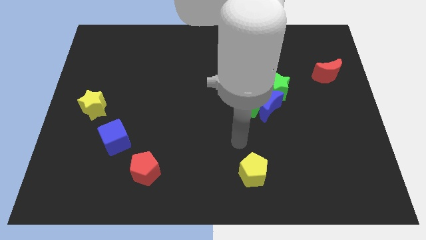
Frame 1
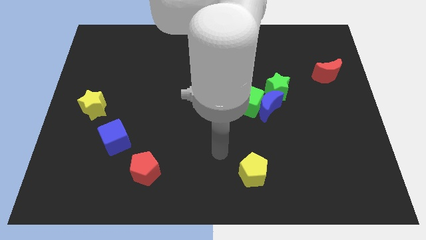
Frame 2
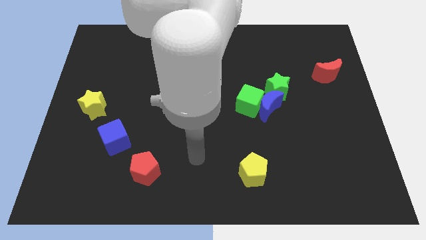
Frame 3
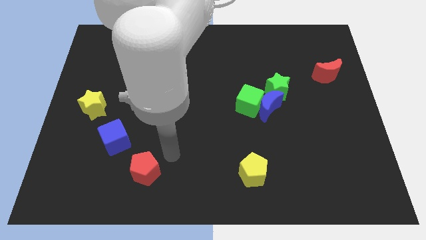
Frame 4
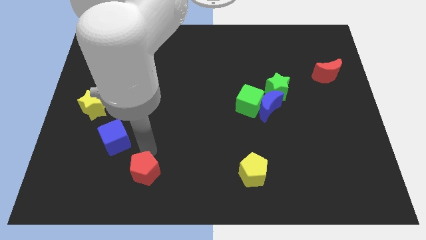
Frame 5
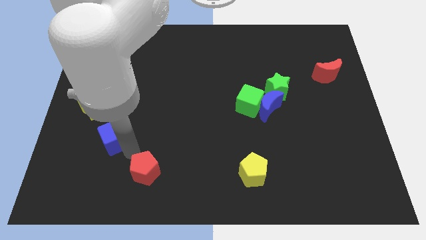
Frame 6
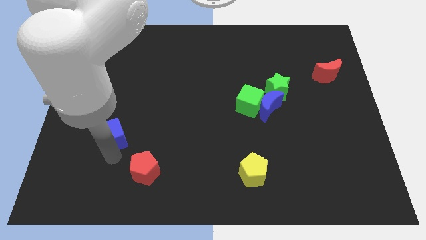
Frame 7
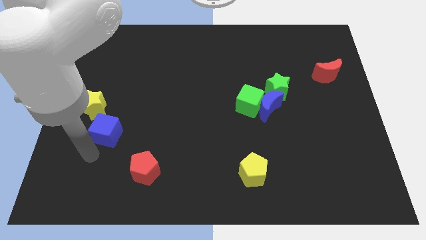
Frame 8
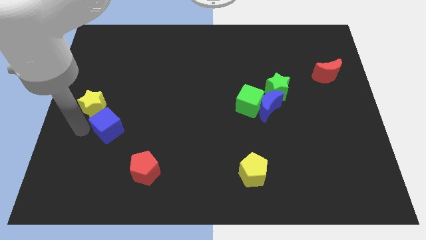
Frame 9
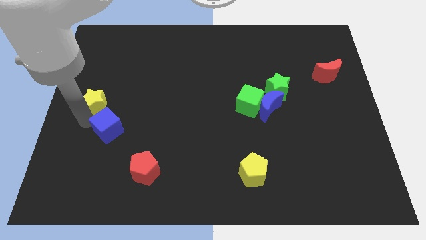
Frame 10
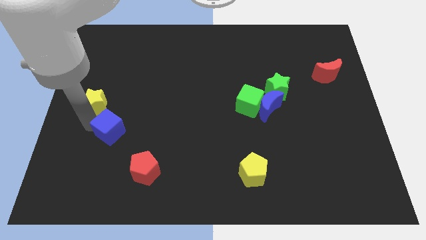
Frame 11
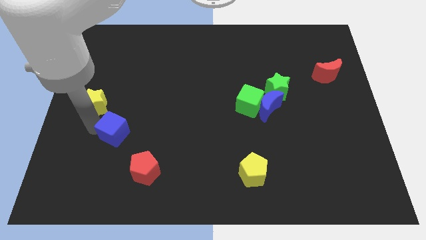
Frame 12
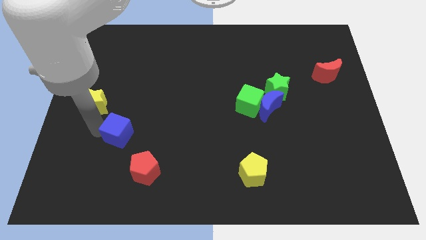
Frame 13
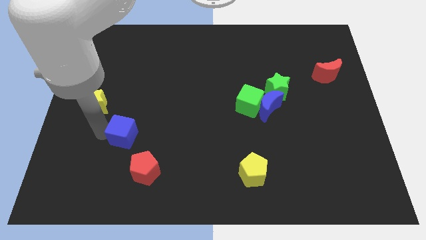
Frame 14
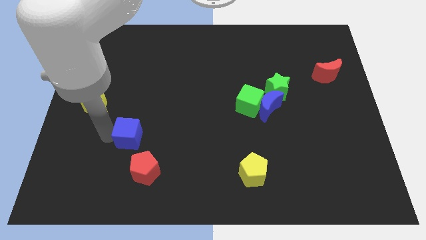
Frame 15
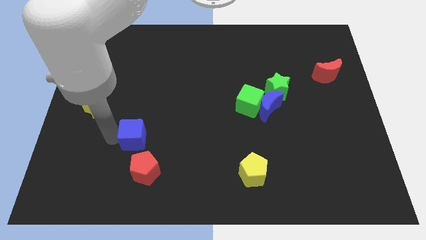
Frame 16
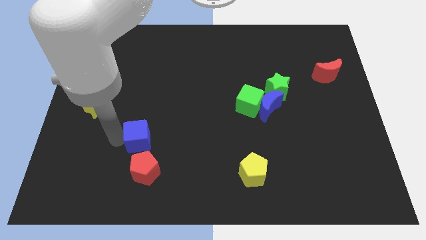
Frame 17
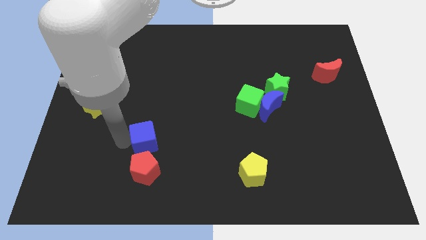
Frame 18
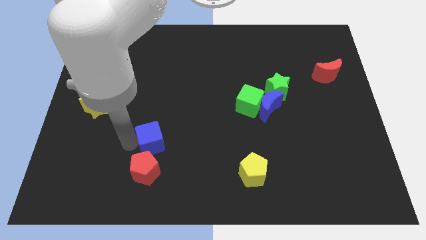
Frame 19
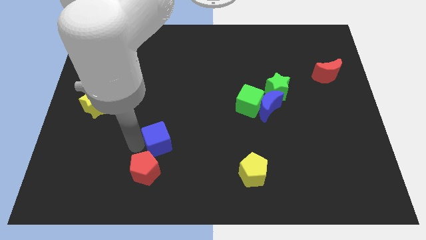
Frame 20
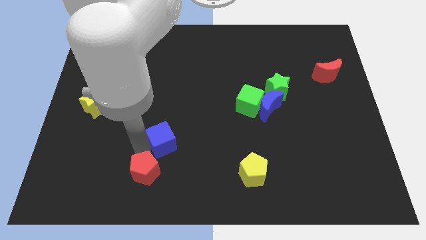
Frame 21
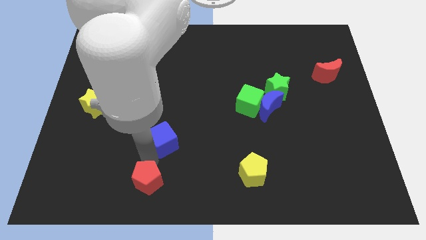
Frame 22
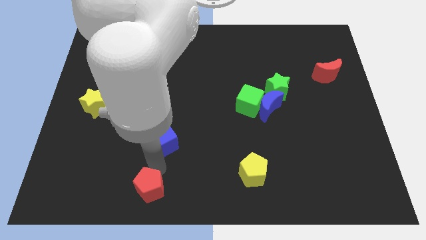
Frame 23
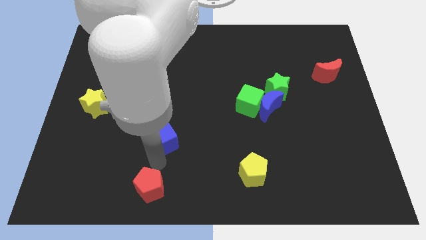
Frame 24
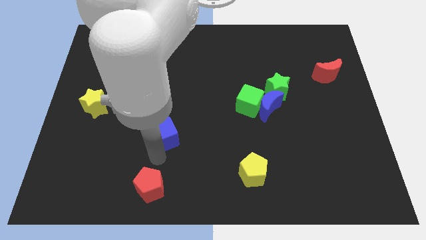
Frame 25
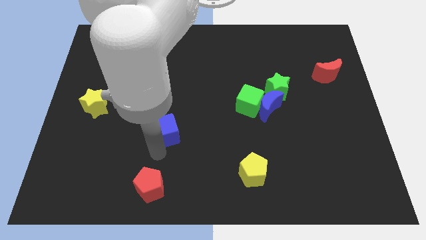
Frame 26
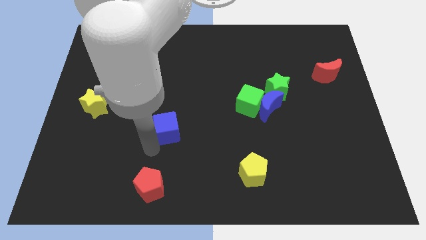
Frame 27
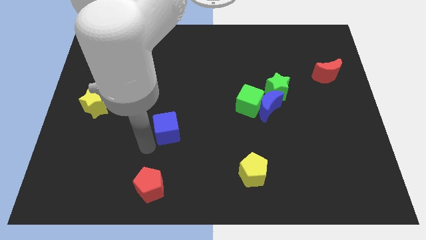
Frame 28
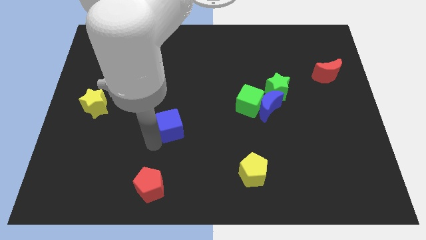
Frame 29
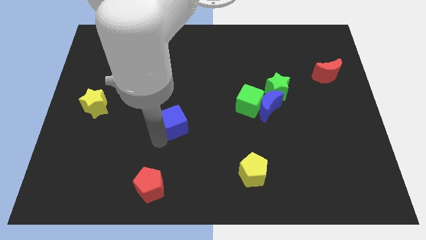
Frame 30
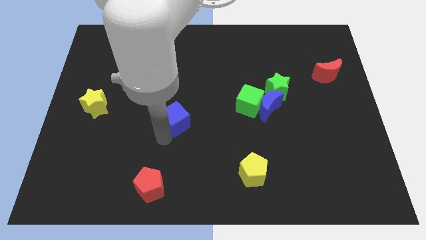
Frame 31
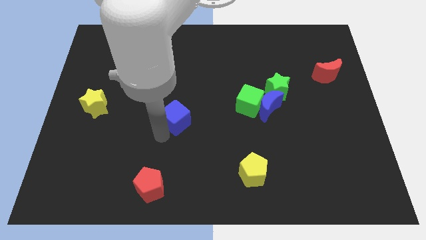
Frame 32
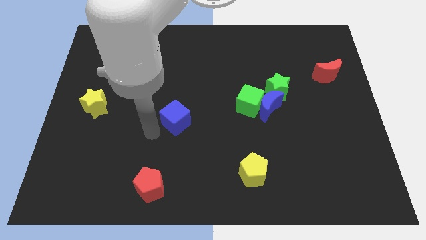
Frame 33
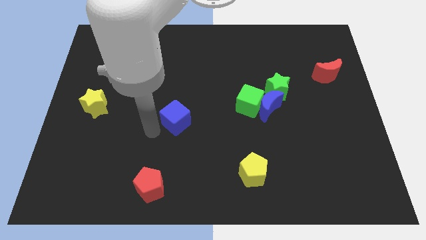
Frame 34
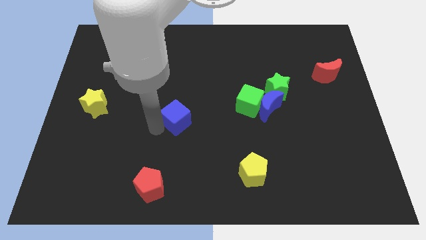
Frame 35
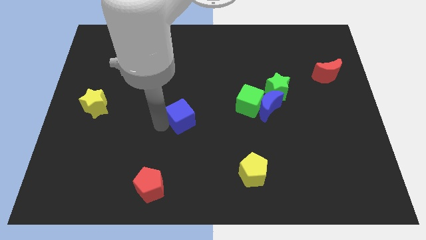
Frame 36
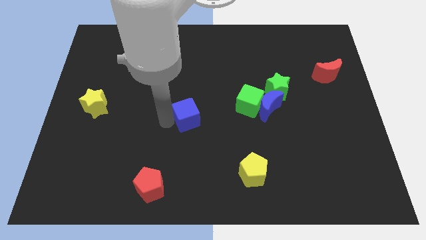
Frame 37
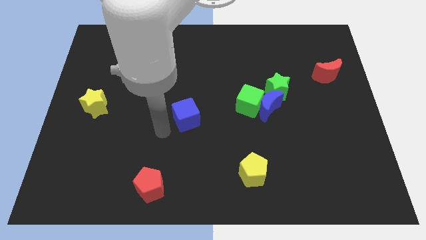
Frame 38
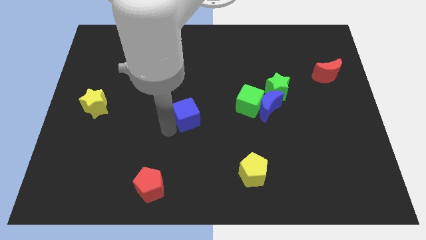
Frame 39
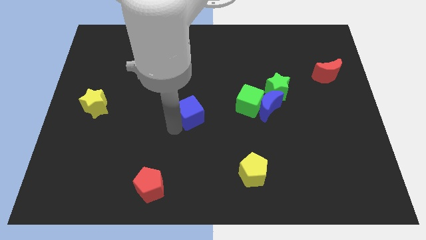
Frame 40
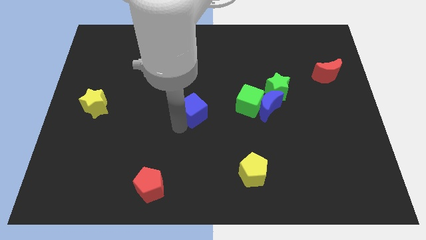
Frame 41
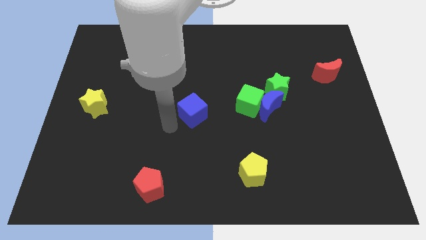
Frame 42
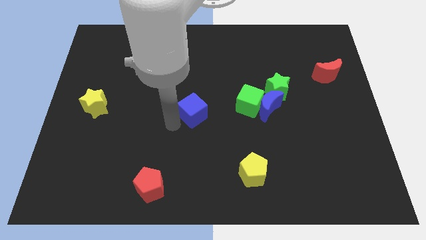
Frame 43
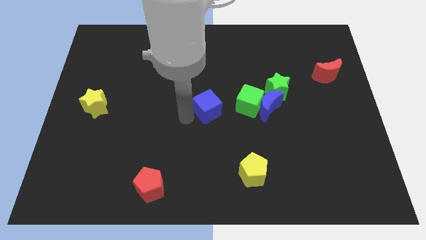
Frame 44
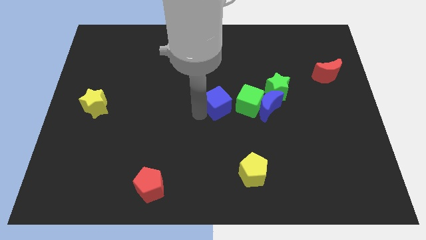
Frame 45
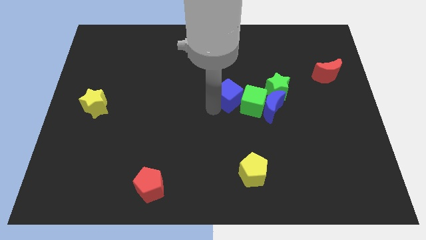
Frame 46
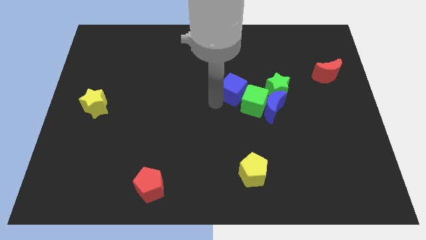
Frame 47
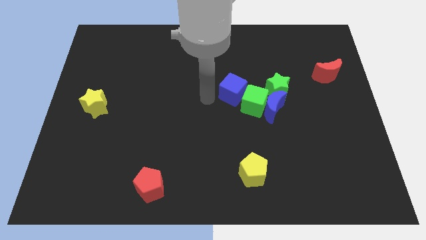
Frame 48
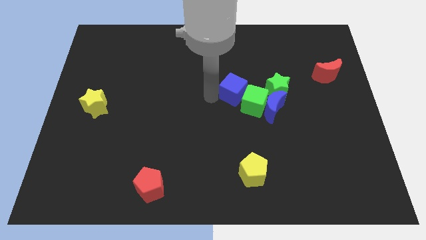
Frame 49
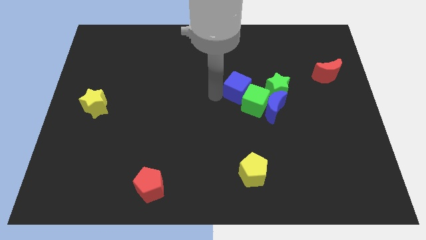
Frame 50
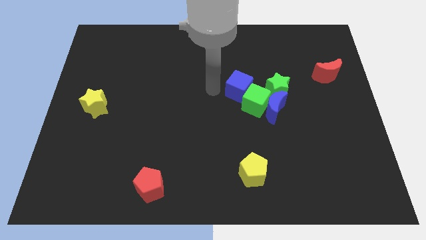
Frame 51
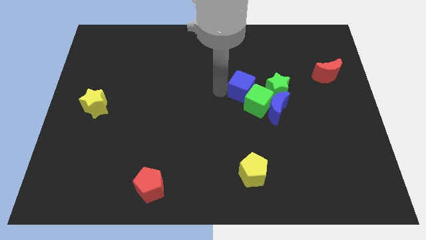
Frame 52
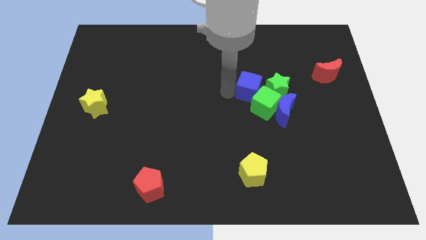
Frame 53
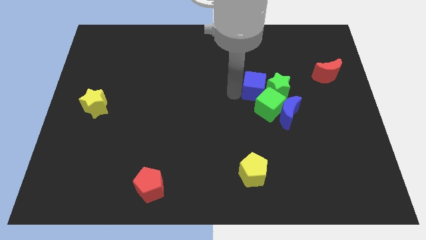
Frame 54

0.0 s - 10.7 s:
slide the blue cube close to the green star
